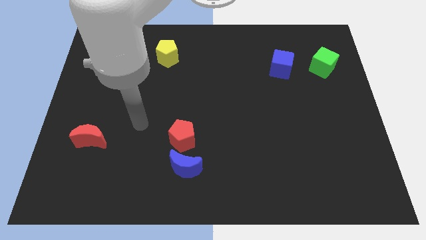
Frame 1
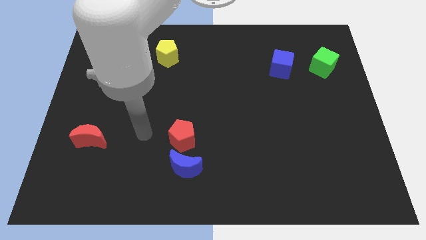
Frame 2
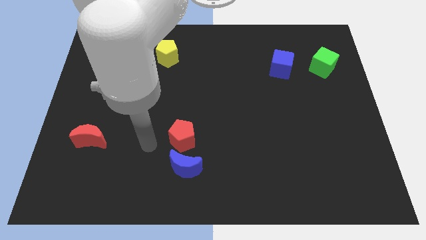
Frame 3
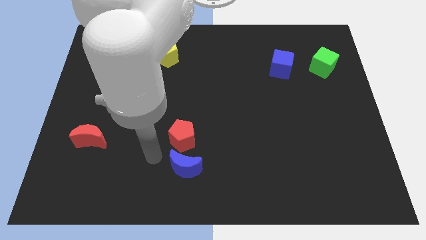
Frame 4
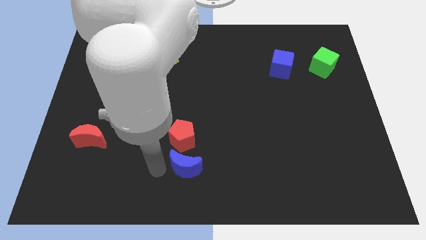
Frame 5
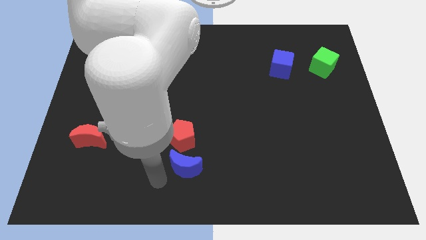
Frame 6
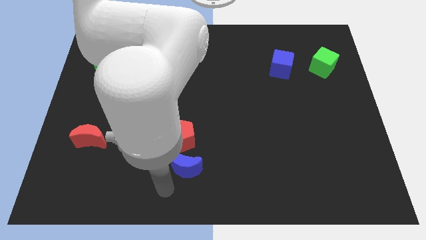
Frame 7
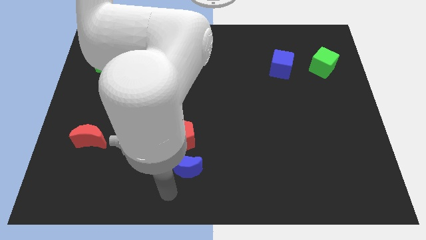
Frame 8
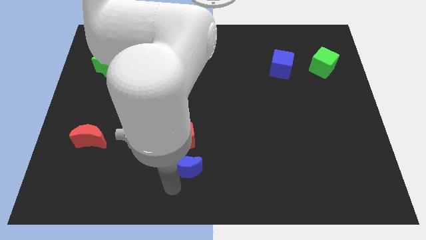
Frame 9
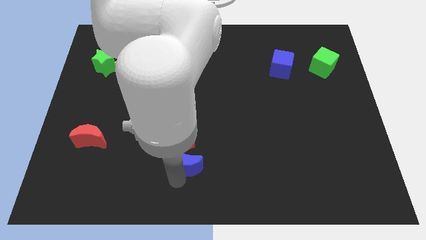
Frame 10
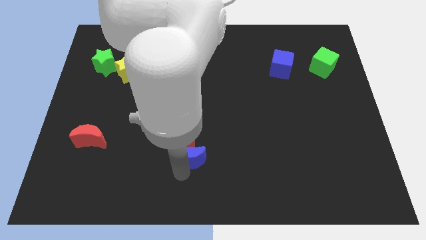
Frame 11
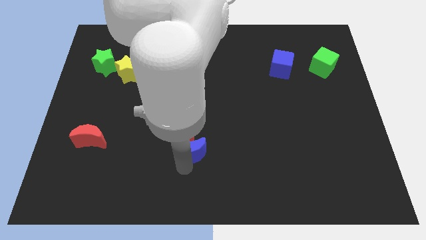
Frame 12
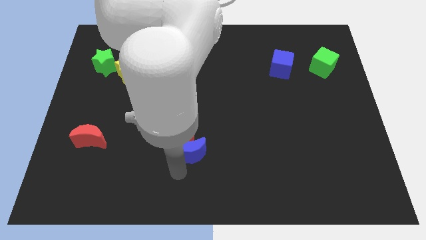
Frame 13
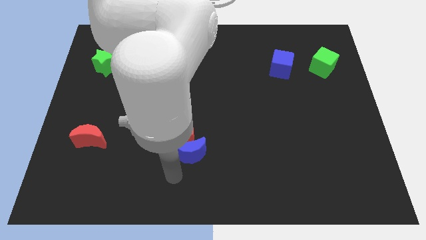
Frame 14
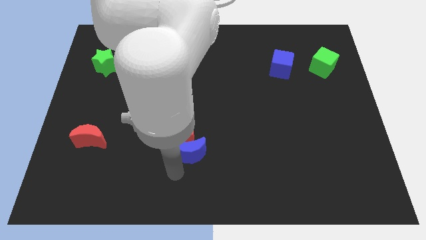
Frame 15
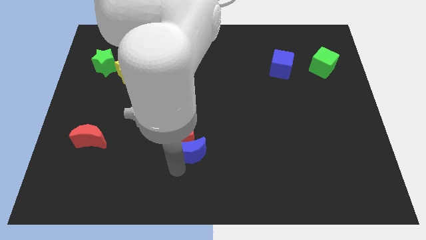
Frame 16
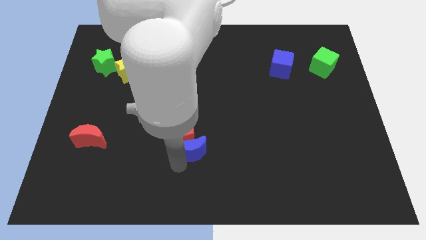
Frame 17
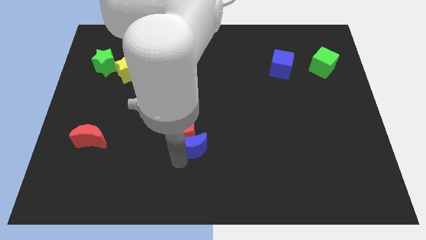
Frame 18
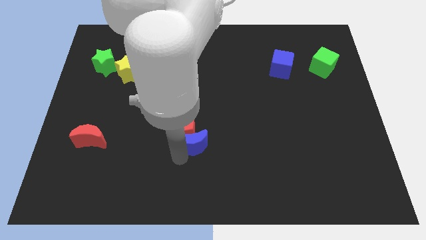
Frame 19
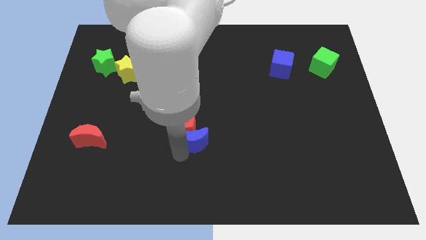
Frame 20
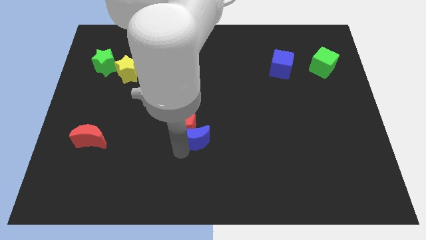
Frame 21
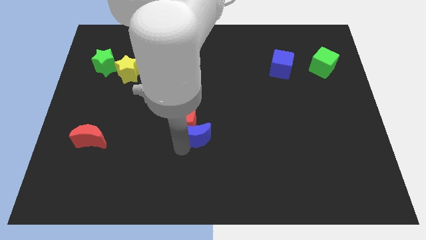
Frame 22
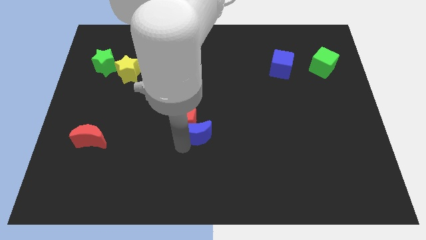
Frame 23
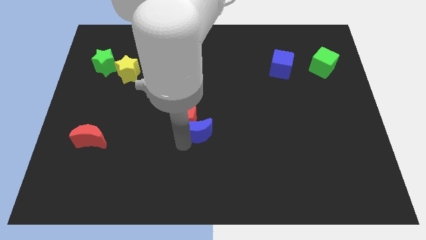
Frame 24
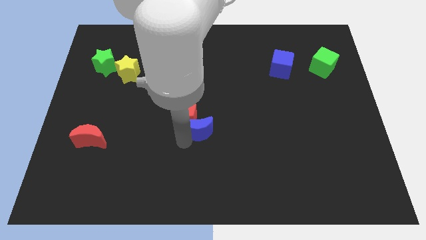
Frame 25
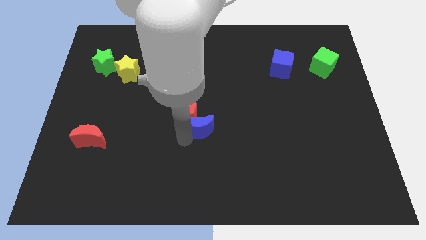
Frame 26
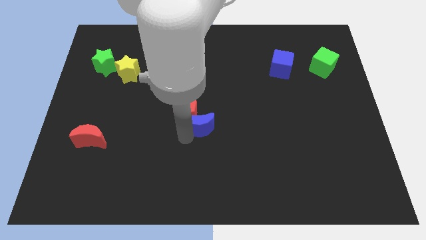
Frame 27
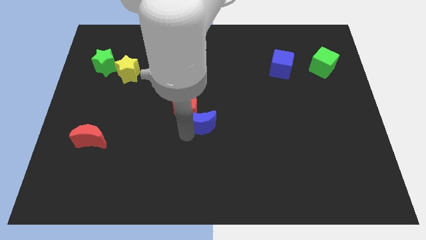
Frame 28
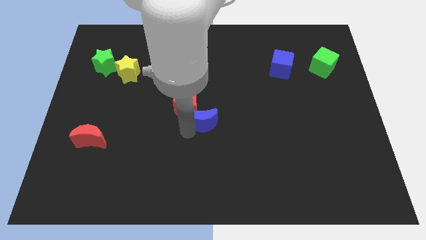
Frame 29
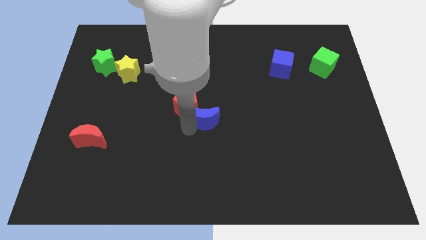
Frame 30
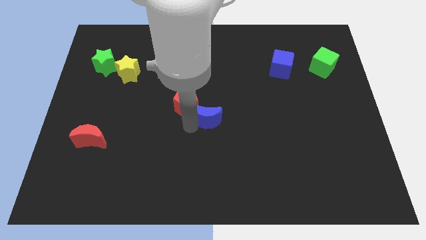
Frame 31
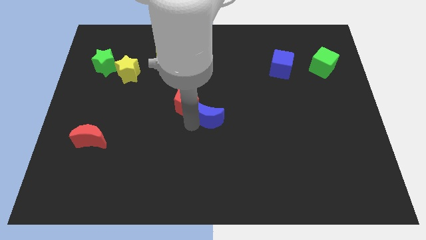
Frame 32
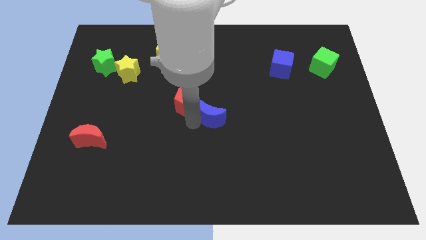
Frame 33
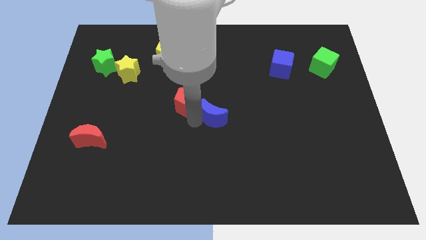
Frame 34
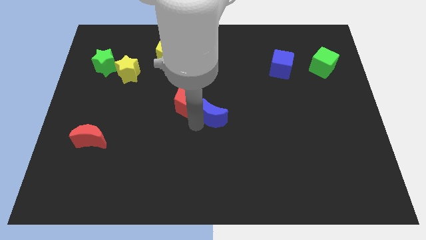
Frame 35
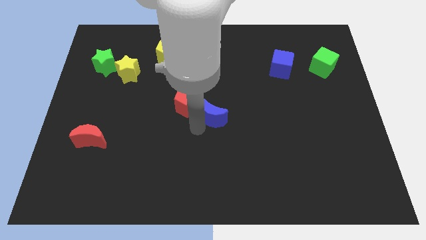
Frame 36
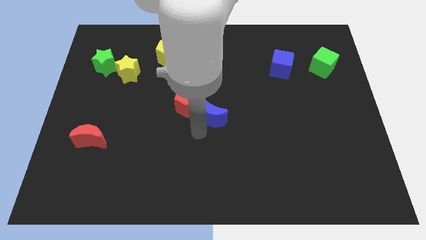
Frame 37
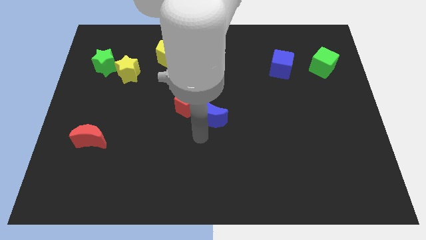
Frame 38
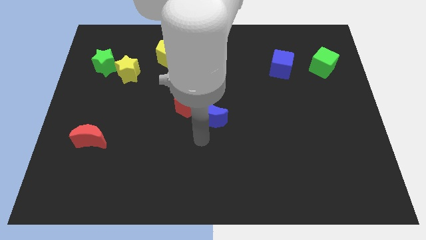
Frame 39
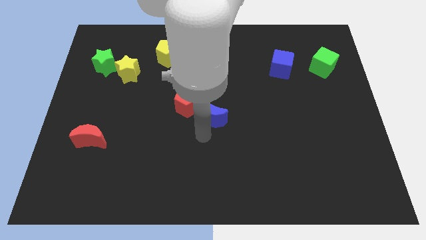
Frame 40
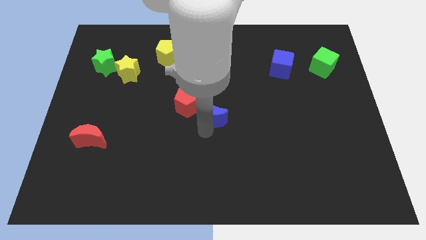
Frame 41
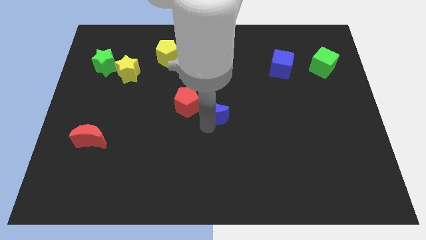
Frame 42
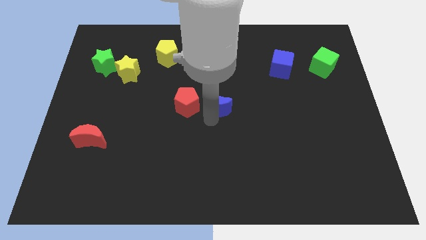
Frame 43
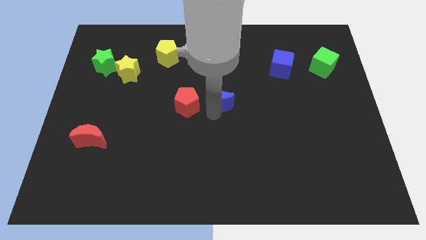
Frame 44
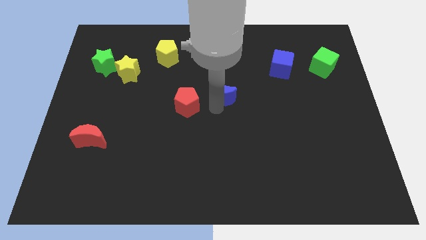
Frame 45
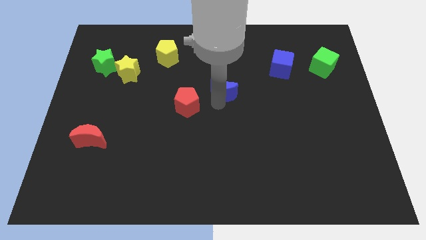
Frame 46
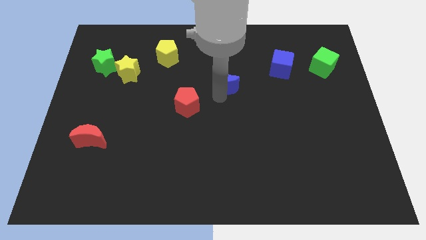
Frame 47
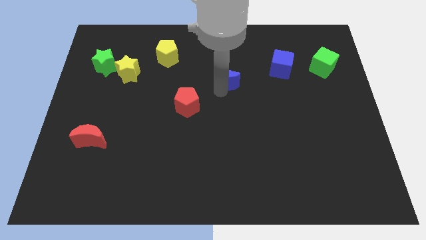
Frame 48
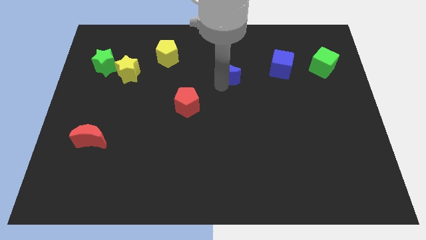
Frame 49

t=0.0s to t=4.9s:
put the blue moon to the left side of the blue cube

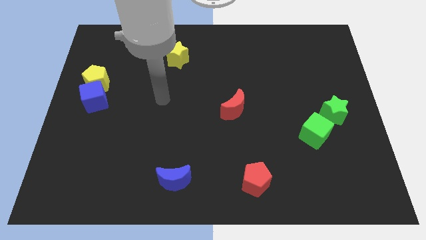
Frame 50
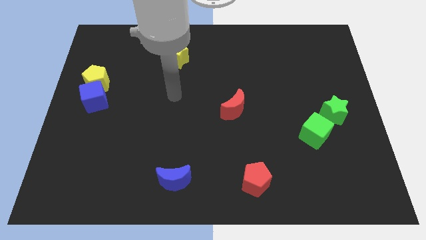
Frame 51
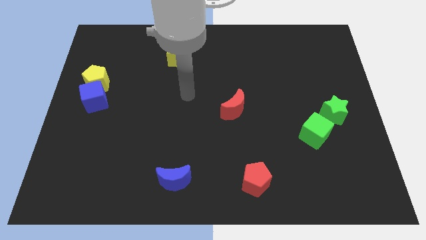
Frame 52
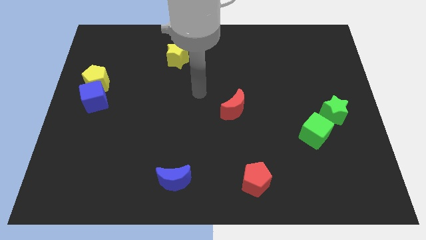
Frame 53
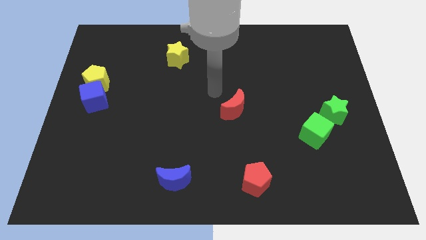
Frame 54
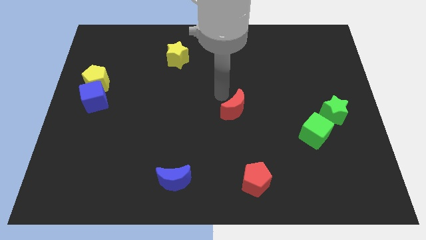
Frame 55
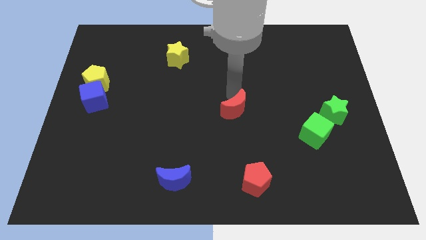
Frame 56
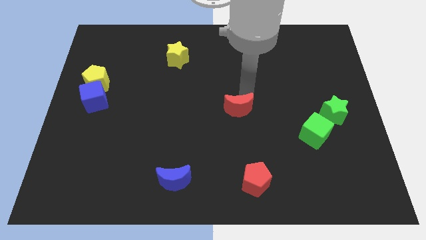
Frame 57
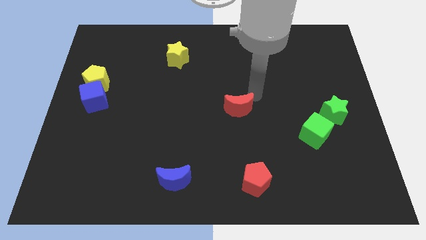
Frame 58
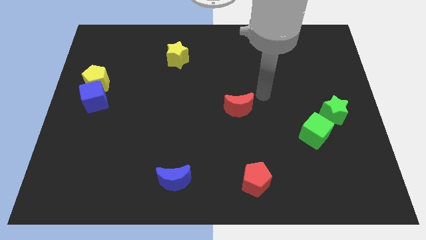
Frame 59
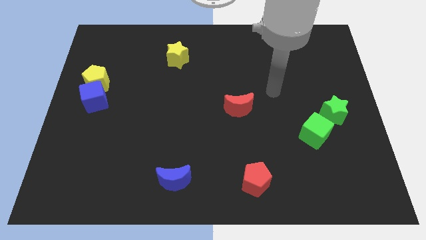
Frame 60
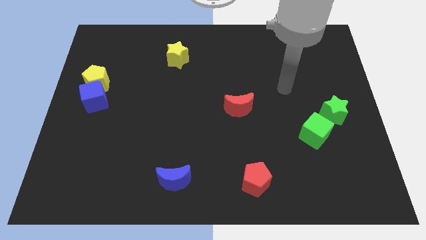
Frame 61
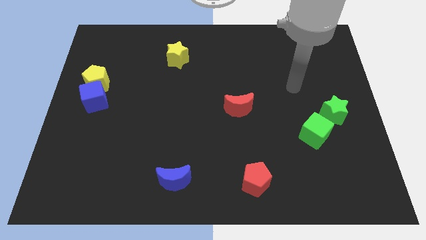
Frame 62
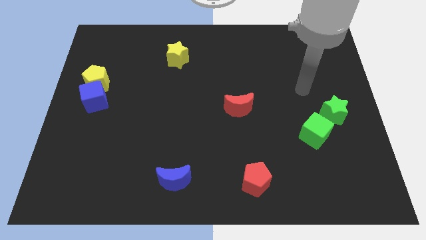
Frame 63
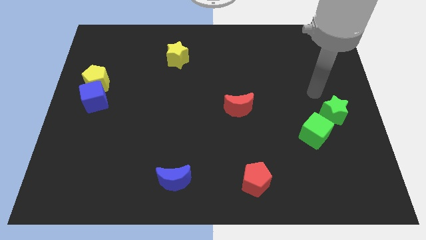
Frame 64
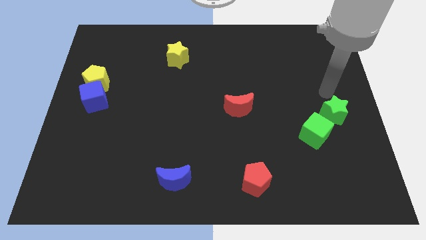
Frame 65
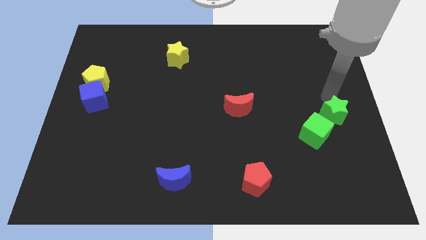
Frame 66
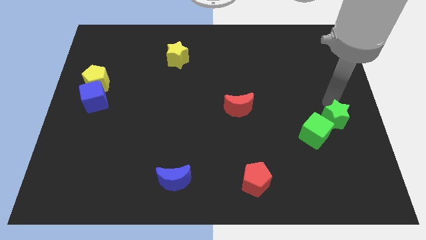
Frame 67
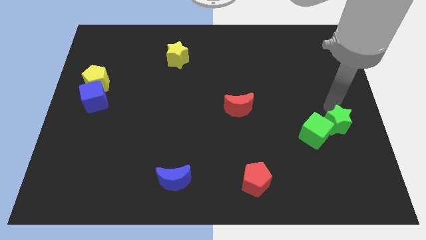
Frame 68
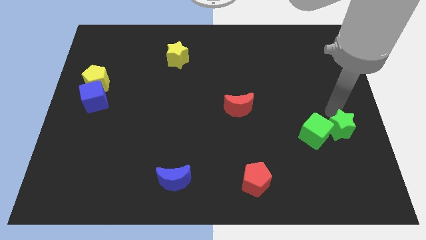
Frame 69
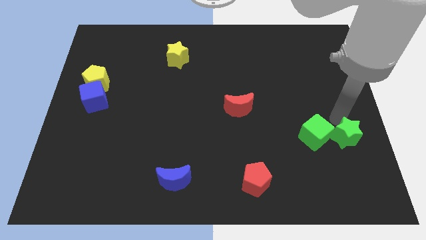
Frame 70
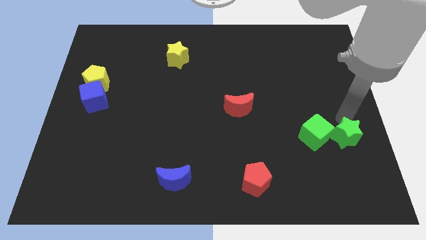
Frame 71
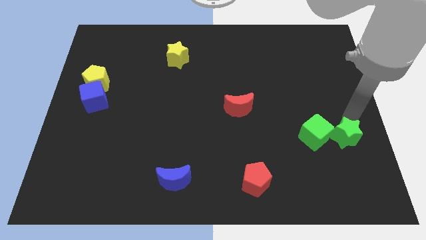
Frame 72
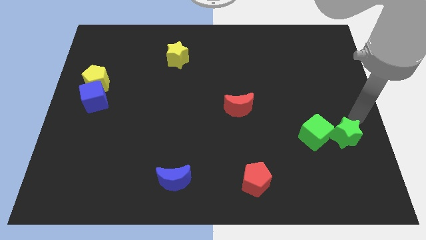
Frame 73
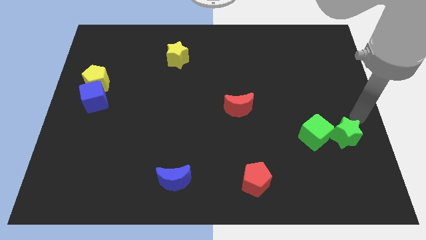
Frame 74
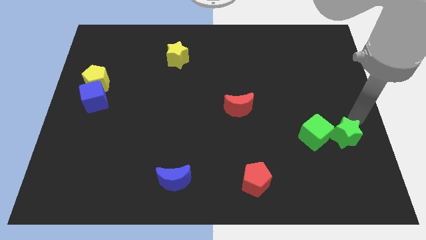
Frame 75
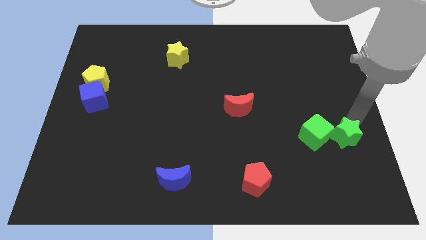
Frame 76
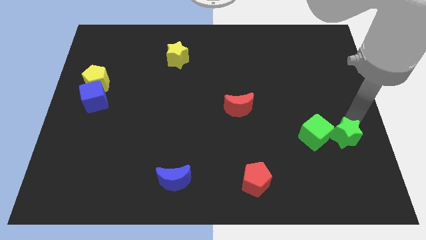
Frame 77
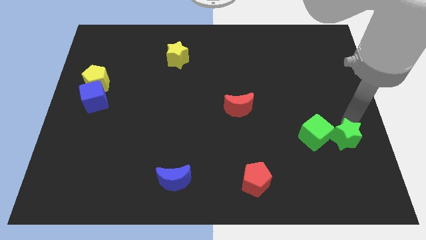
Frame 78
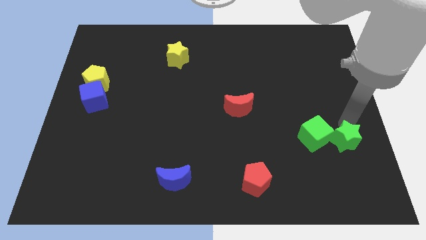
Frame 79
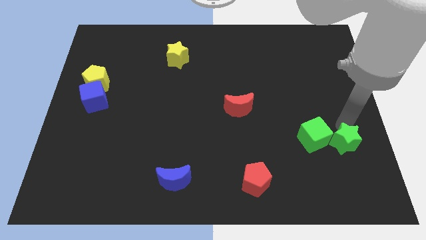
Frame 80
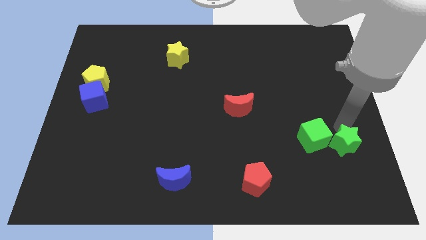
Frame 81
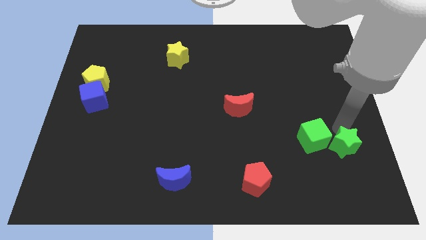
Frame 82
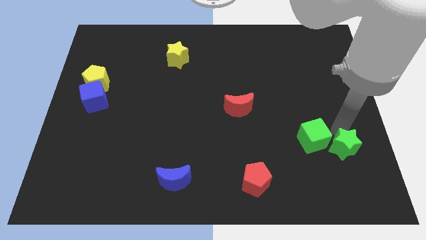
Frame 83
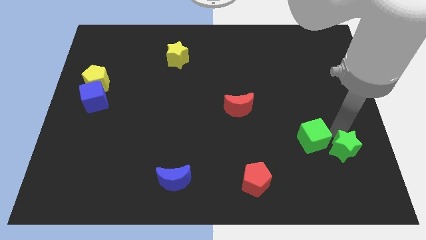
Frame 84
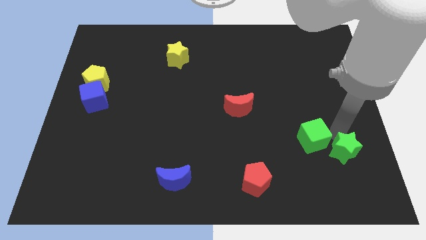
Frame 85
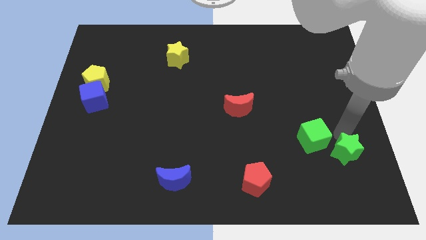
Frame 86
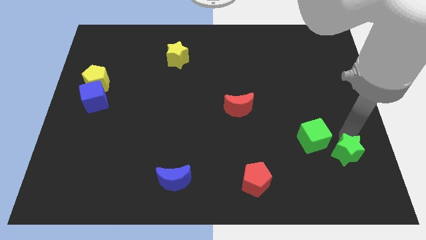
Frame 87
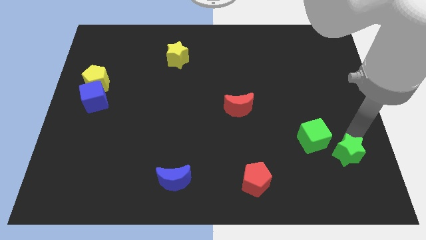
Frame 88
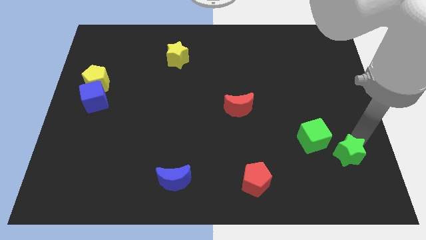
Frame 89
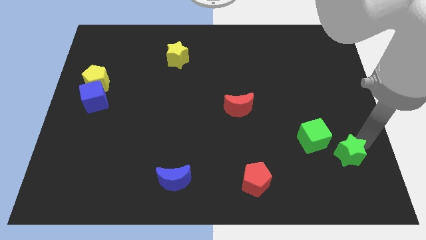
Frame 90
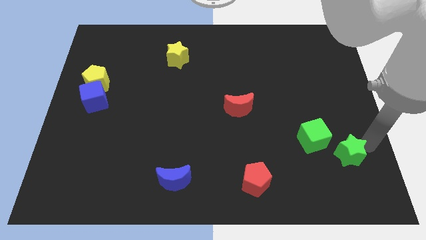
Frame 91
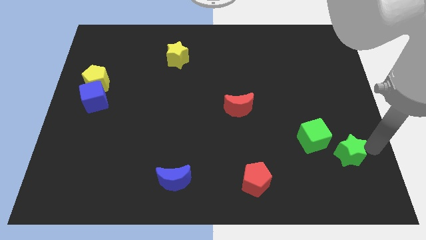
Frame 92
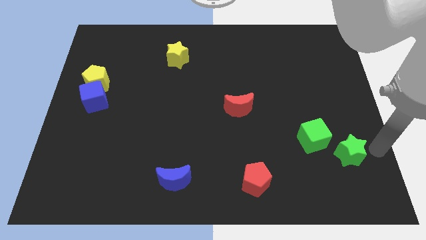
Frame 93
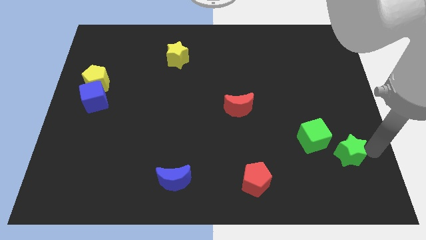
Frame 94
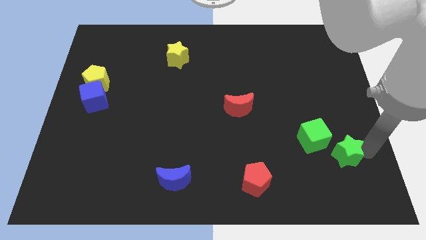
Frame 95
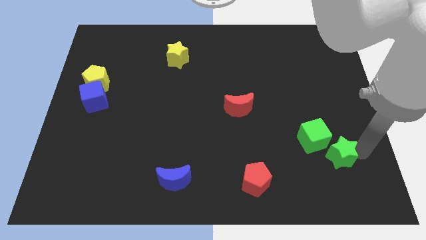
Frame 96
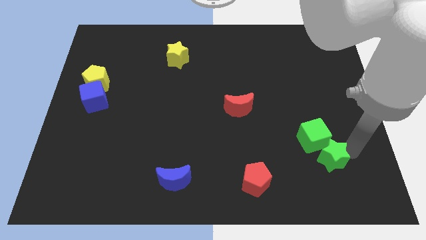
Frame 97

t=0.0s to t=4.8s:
push the green star to the bottom of the green cube
